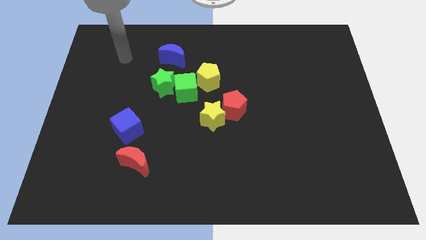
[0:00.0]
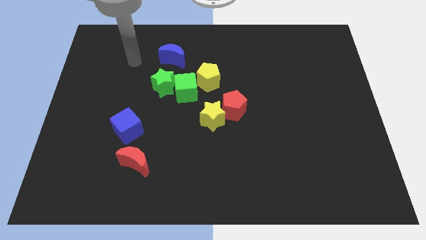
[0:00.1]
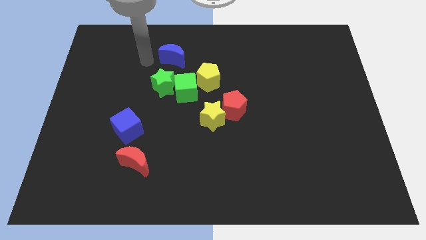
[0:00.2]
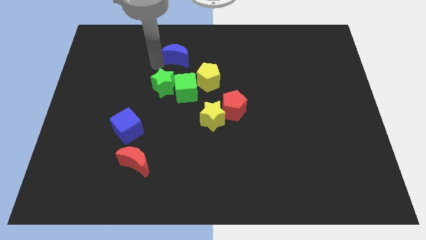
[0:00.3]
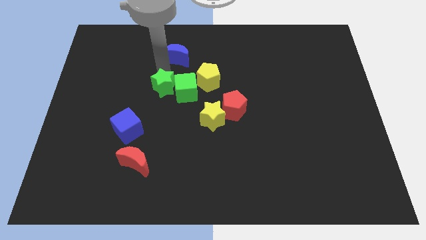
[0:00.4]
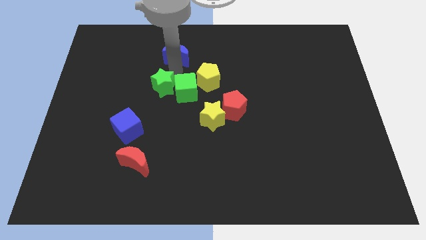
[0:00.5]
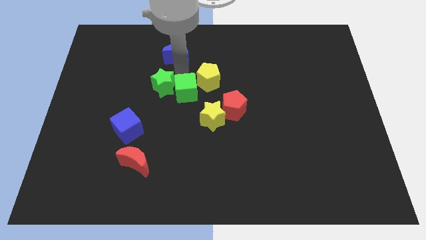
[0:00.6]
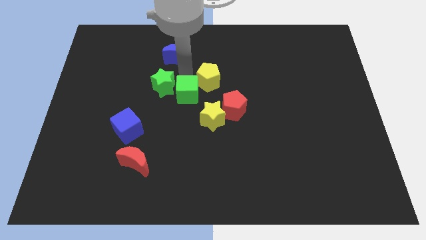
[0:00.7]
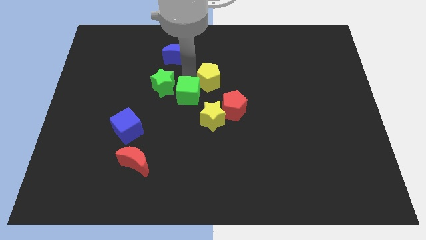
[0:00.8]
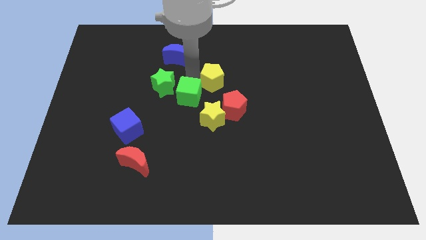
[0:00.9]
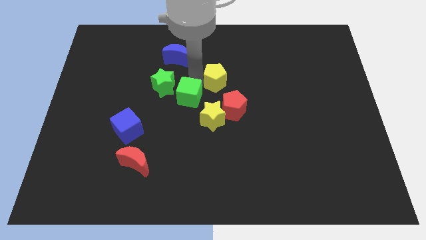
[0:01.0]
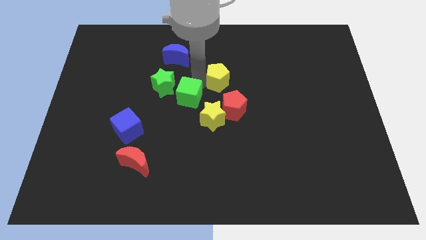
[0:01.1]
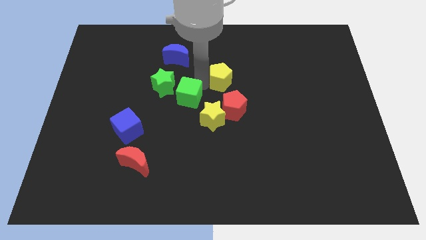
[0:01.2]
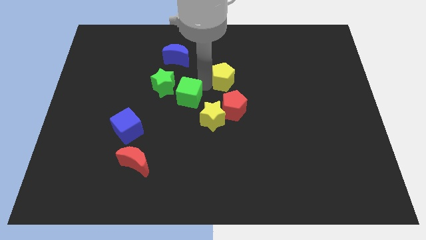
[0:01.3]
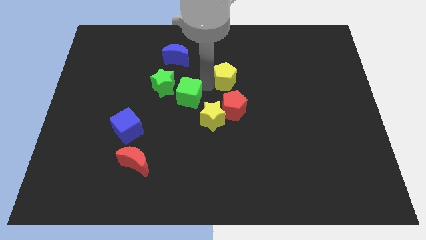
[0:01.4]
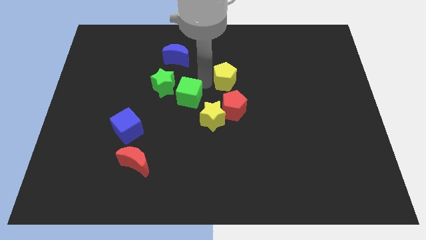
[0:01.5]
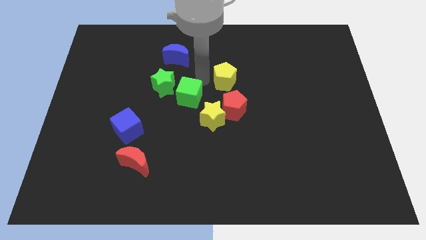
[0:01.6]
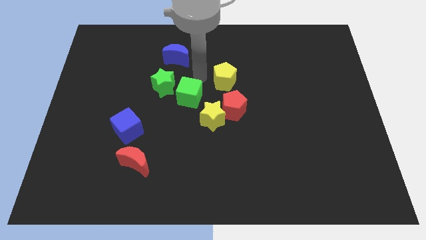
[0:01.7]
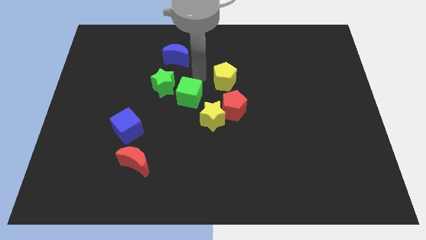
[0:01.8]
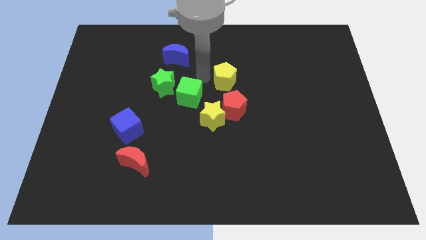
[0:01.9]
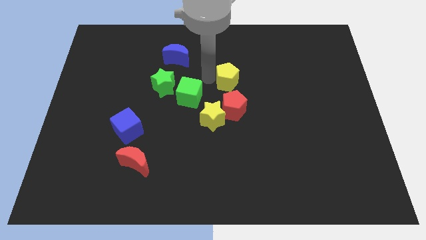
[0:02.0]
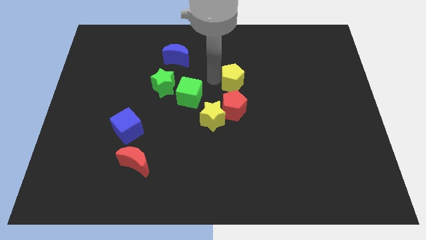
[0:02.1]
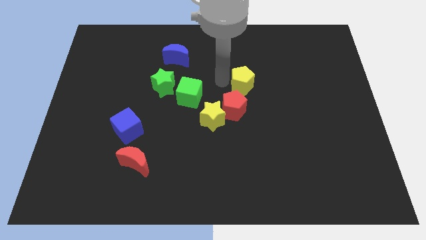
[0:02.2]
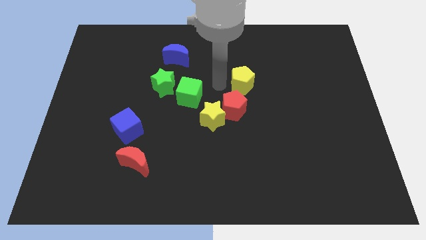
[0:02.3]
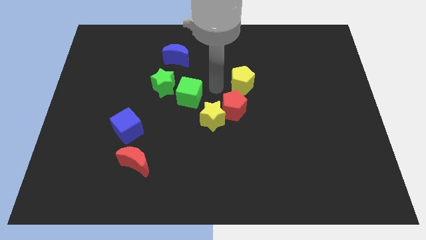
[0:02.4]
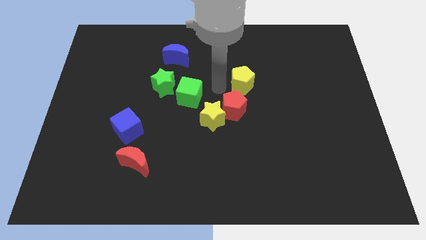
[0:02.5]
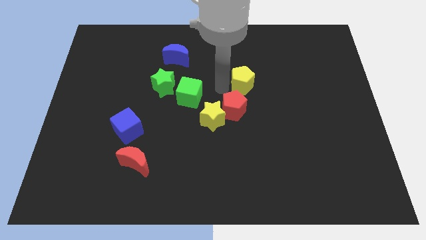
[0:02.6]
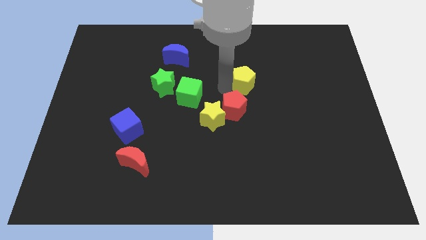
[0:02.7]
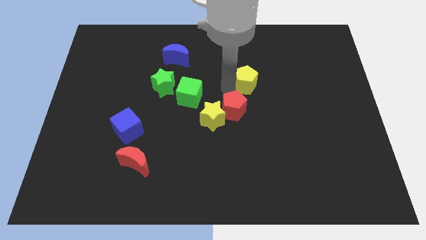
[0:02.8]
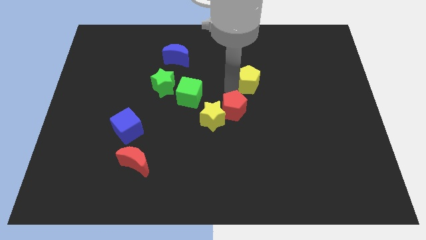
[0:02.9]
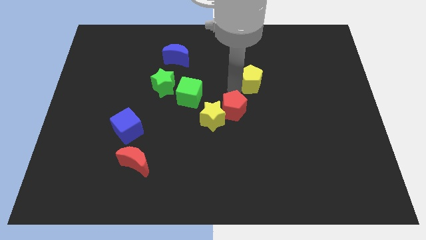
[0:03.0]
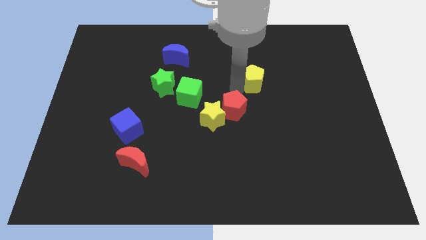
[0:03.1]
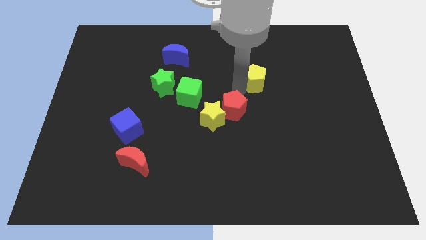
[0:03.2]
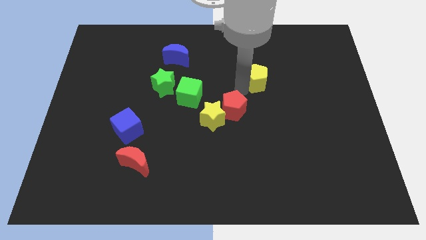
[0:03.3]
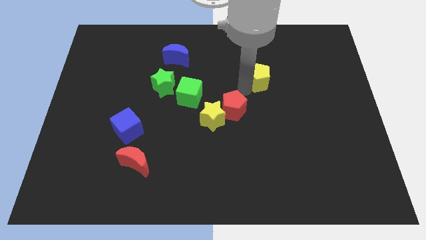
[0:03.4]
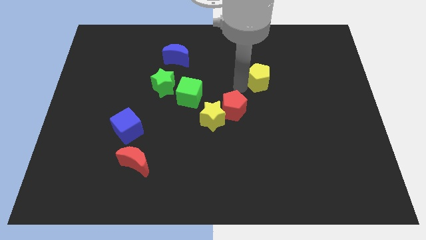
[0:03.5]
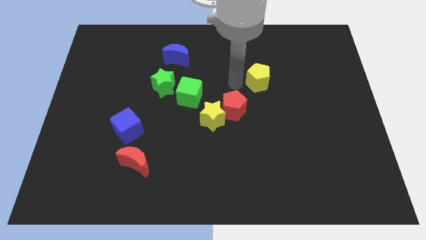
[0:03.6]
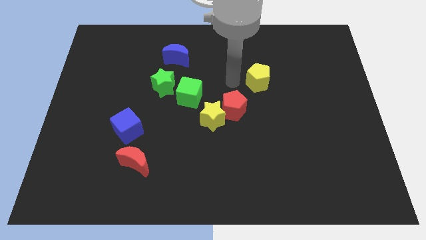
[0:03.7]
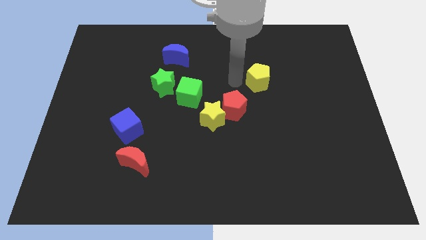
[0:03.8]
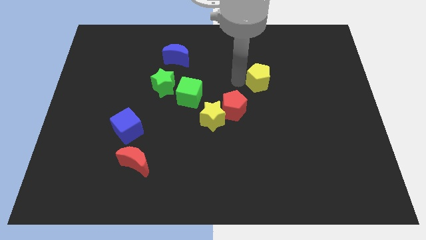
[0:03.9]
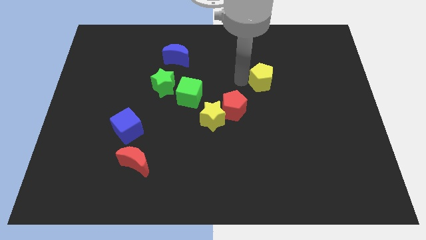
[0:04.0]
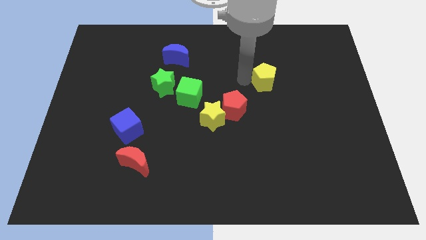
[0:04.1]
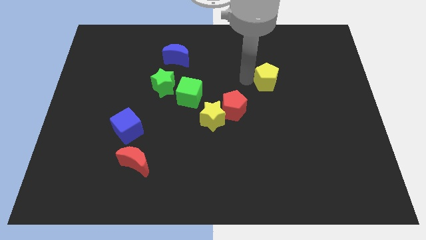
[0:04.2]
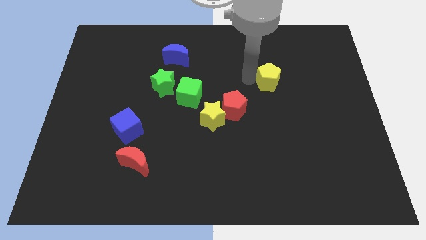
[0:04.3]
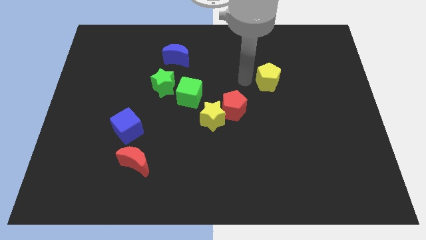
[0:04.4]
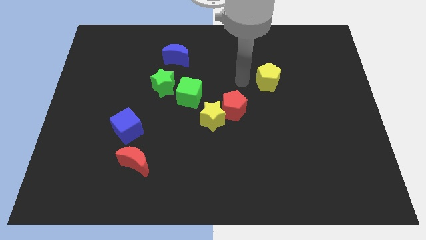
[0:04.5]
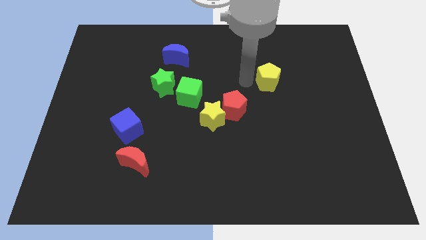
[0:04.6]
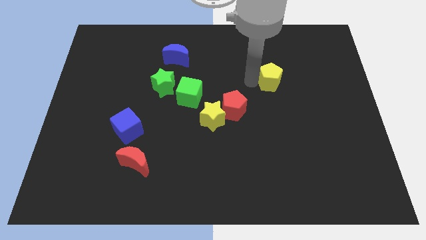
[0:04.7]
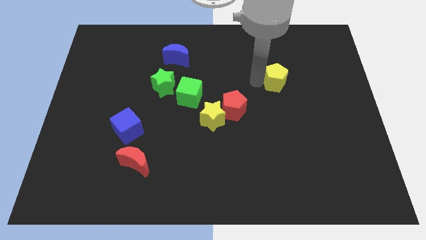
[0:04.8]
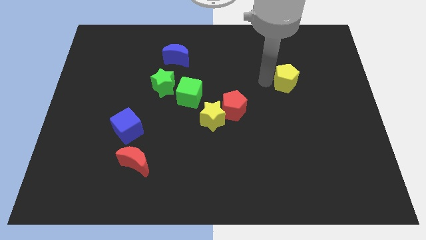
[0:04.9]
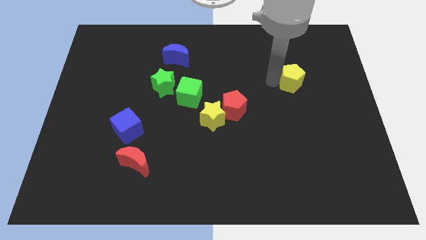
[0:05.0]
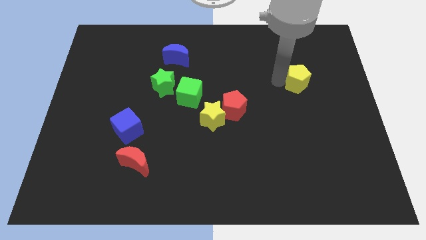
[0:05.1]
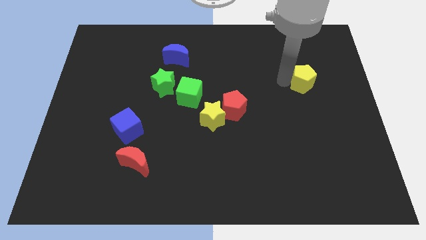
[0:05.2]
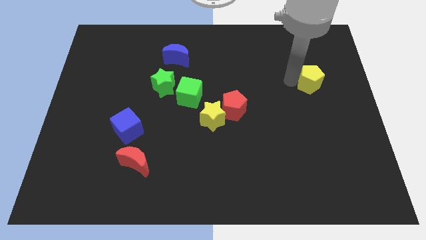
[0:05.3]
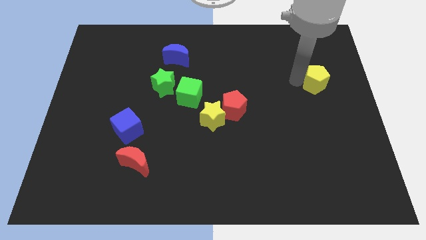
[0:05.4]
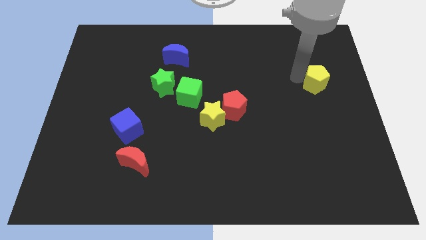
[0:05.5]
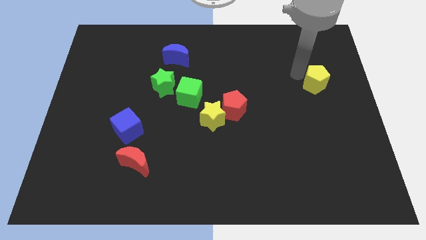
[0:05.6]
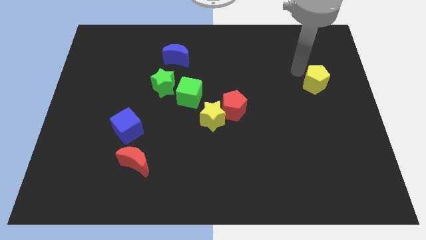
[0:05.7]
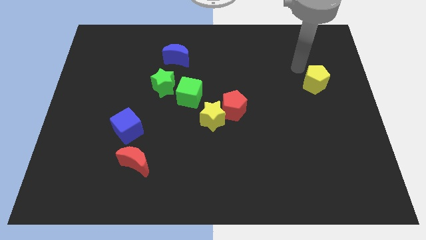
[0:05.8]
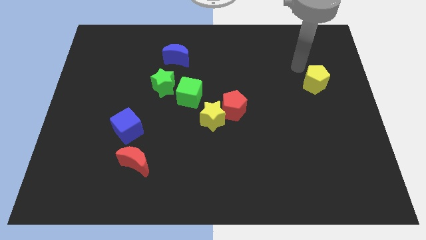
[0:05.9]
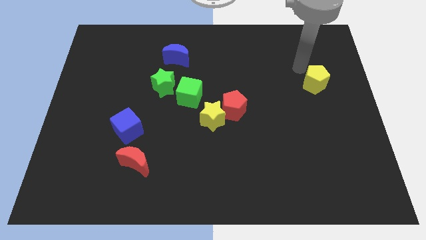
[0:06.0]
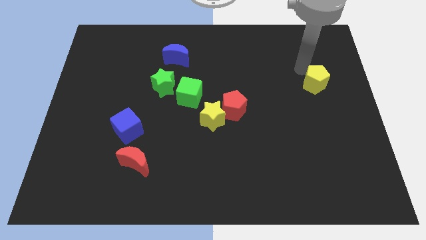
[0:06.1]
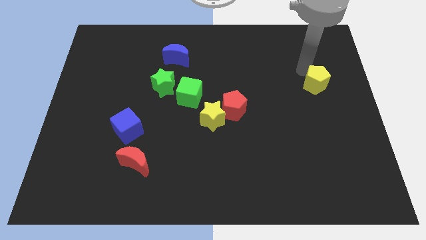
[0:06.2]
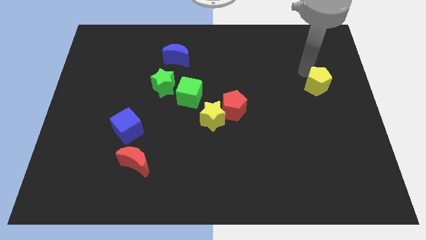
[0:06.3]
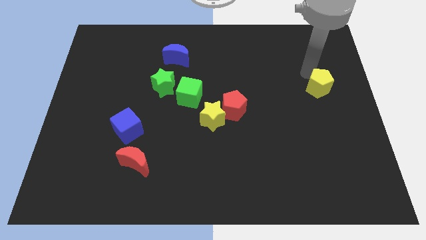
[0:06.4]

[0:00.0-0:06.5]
move the yellow pentagon to the right side

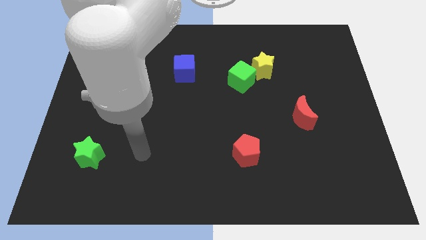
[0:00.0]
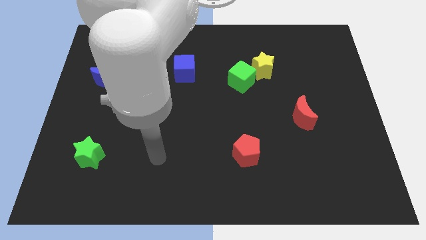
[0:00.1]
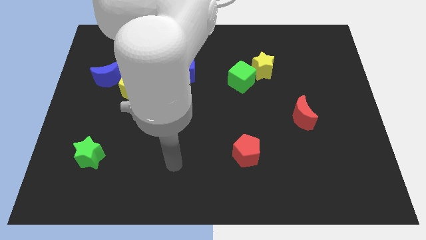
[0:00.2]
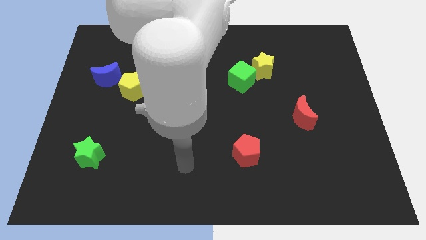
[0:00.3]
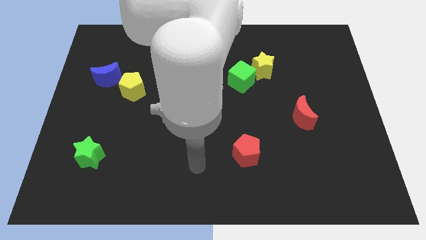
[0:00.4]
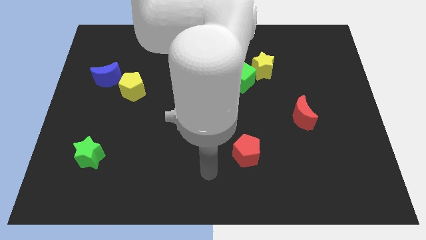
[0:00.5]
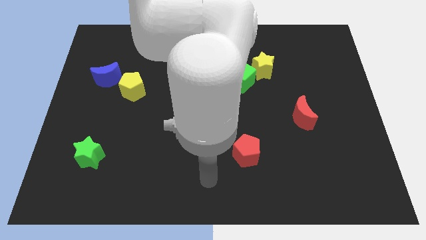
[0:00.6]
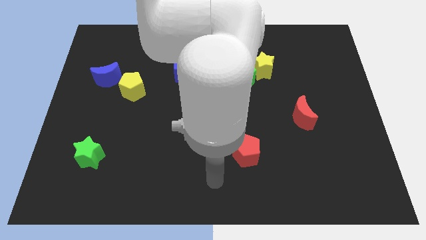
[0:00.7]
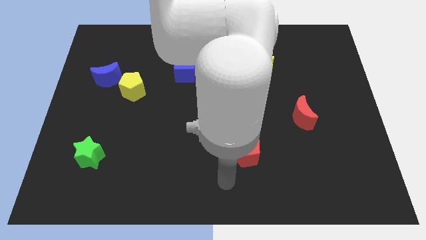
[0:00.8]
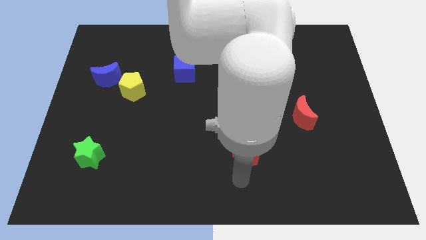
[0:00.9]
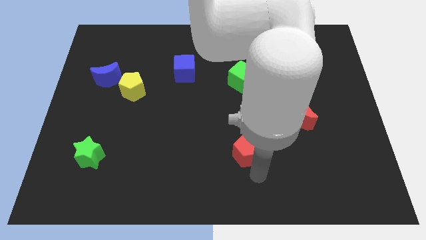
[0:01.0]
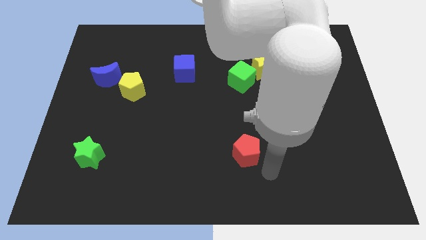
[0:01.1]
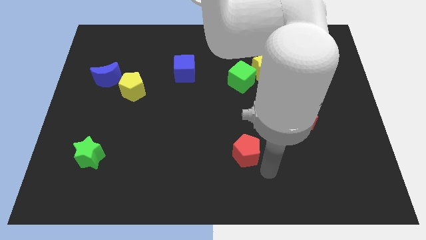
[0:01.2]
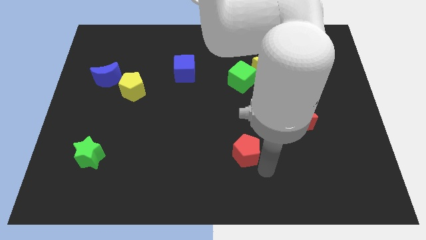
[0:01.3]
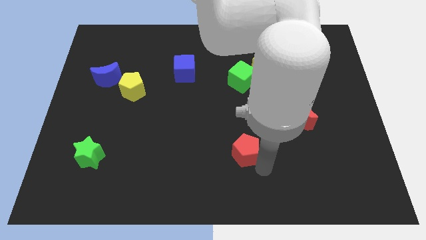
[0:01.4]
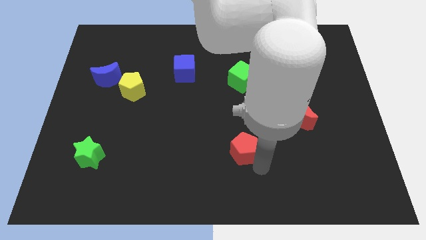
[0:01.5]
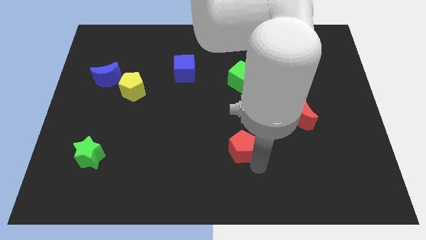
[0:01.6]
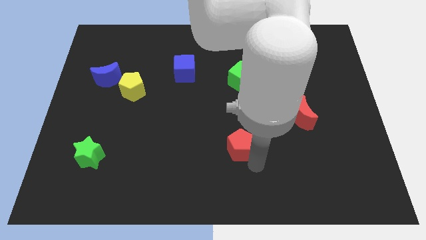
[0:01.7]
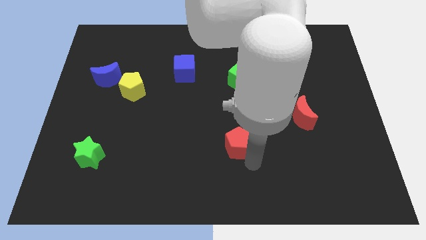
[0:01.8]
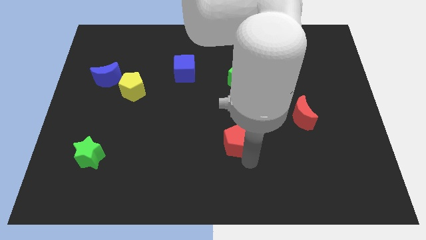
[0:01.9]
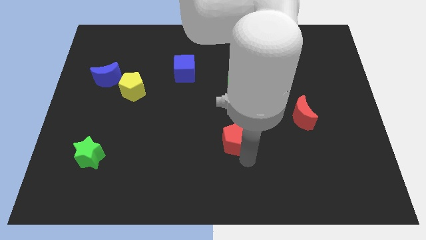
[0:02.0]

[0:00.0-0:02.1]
push the red pentagon to the center of the board
